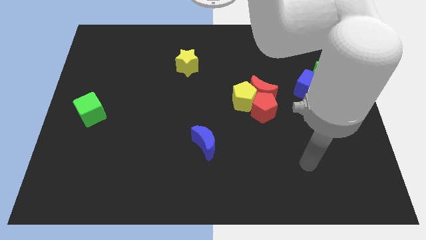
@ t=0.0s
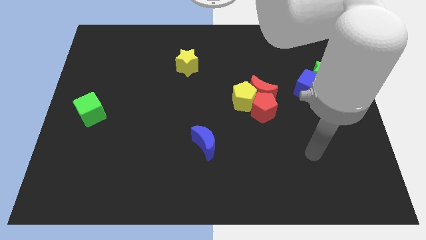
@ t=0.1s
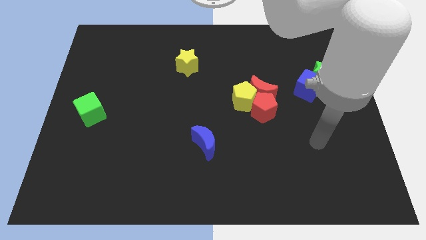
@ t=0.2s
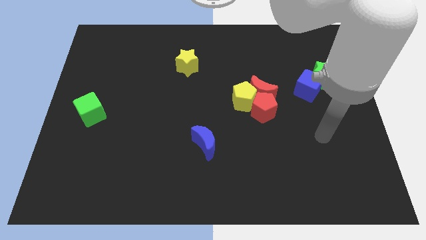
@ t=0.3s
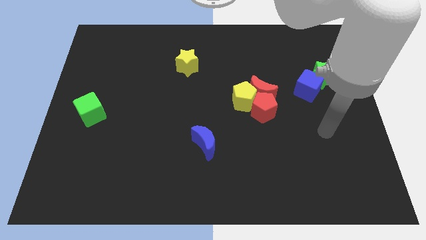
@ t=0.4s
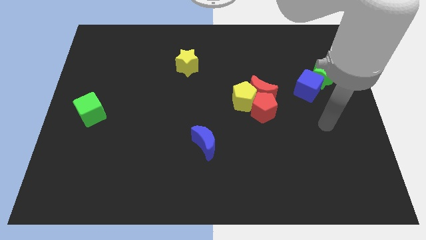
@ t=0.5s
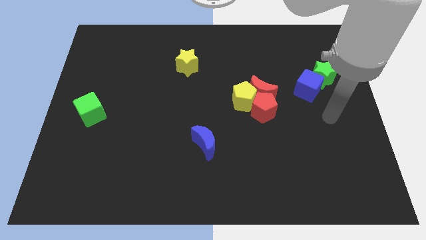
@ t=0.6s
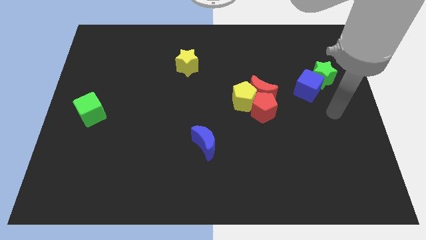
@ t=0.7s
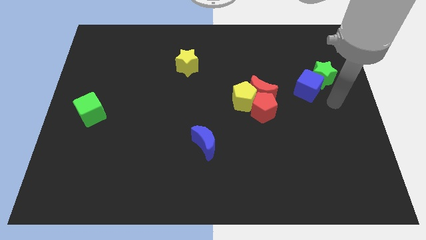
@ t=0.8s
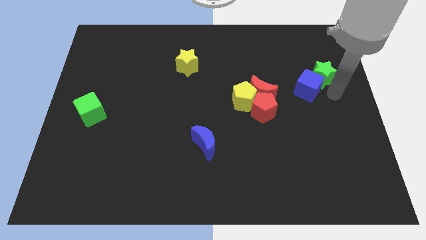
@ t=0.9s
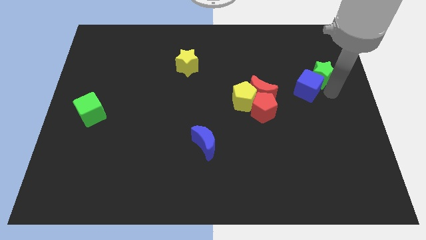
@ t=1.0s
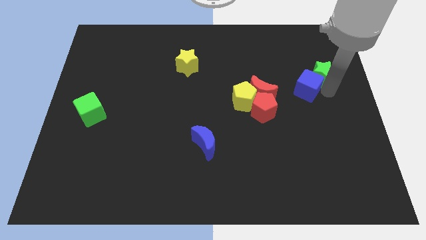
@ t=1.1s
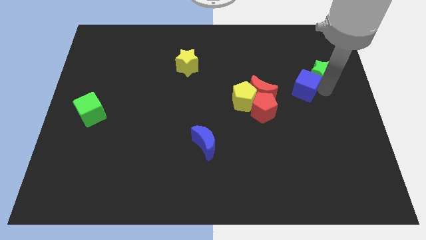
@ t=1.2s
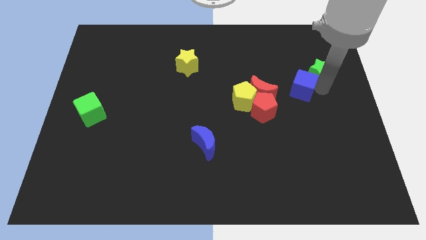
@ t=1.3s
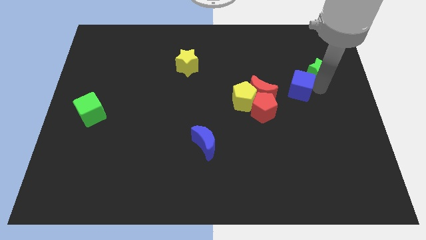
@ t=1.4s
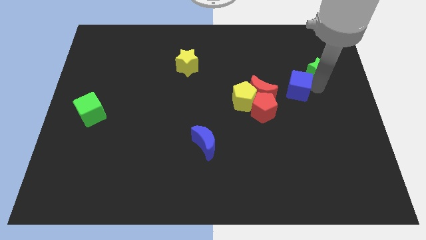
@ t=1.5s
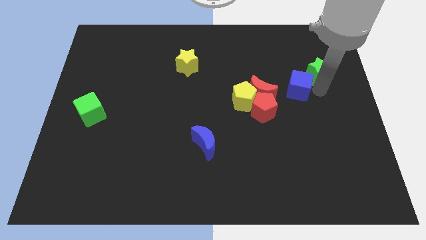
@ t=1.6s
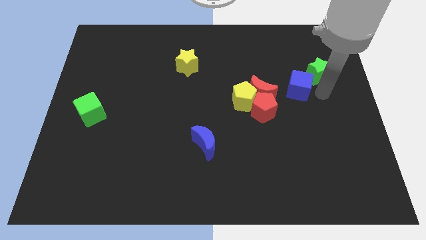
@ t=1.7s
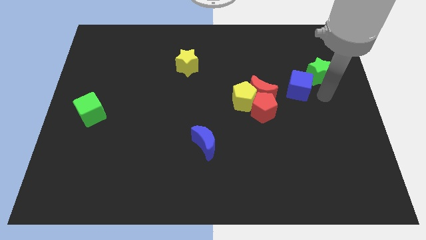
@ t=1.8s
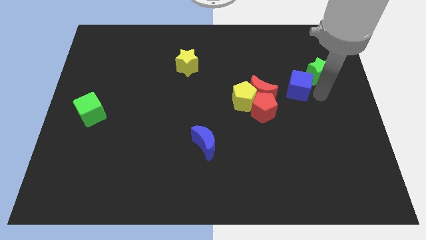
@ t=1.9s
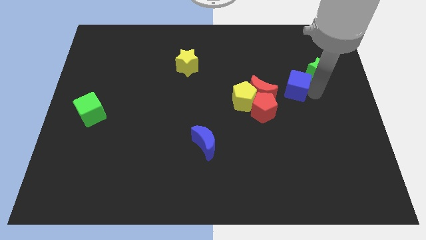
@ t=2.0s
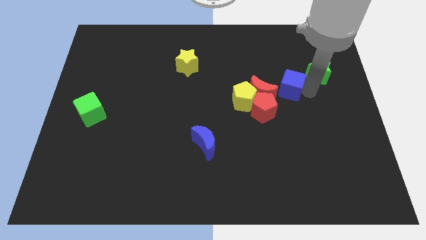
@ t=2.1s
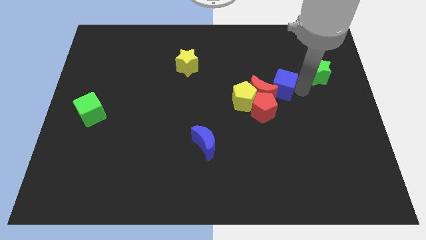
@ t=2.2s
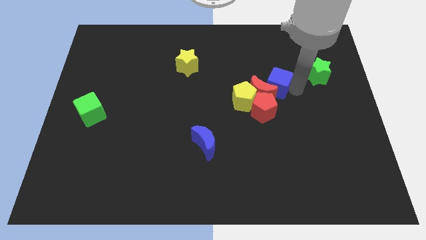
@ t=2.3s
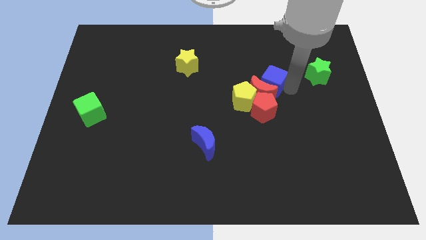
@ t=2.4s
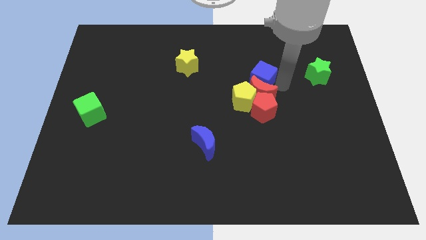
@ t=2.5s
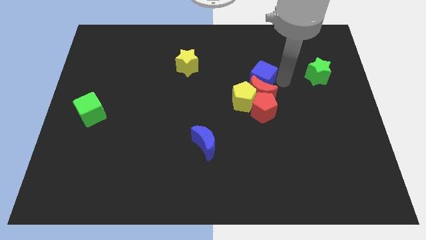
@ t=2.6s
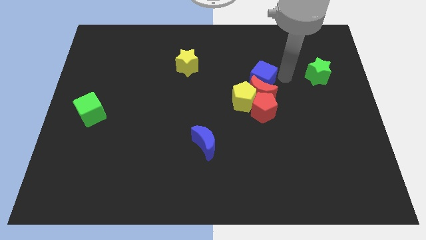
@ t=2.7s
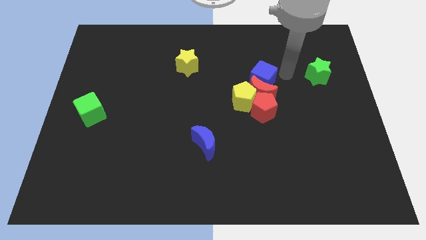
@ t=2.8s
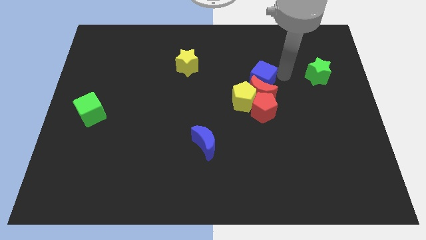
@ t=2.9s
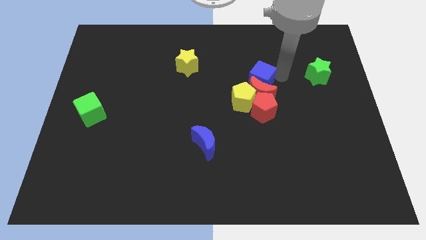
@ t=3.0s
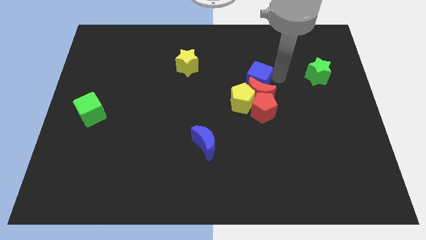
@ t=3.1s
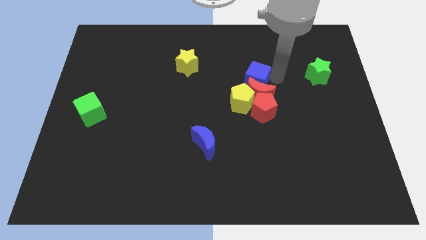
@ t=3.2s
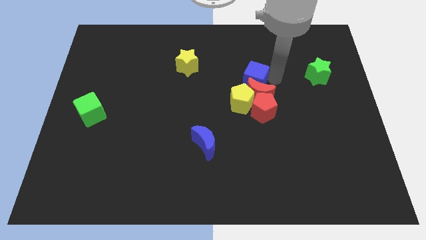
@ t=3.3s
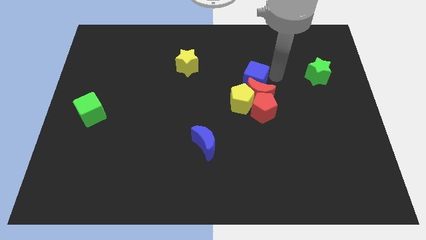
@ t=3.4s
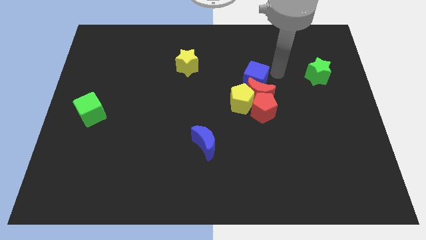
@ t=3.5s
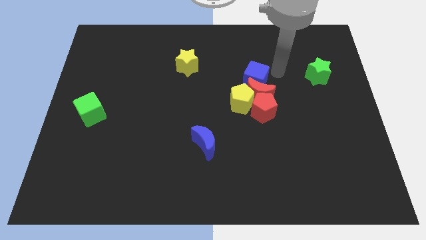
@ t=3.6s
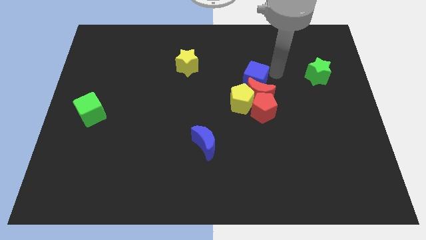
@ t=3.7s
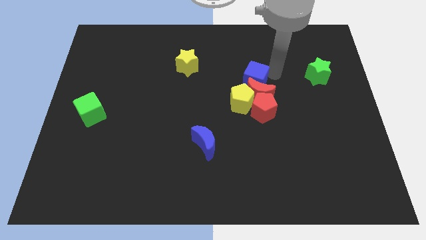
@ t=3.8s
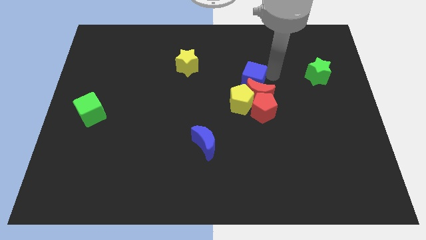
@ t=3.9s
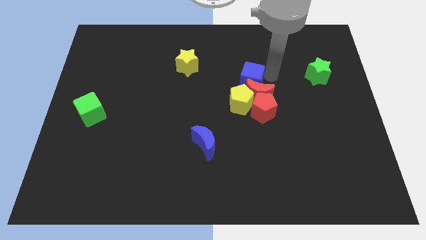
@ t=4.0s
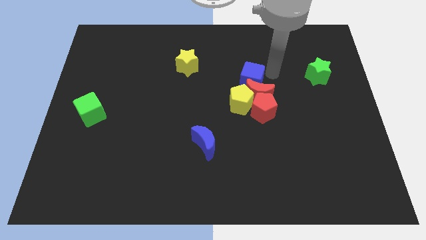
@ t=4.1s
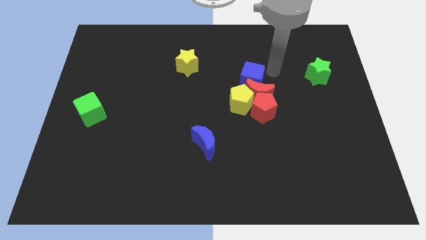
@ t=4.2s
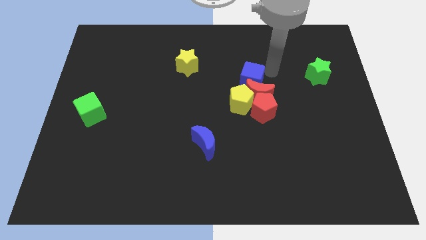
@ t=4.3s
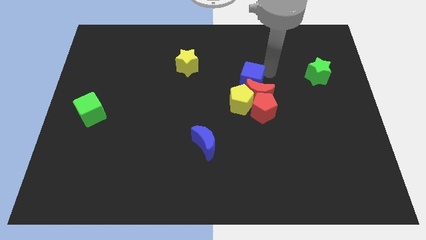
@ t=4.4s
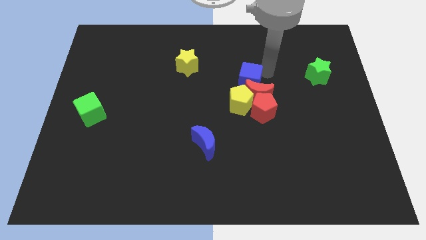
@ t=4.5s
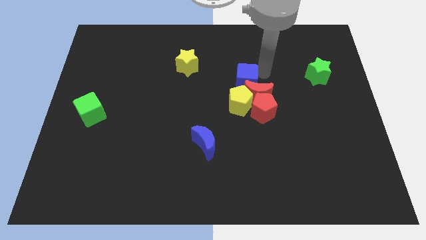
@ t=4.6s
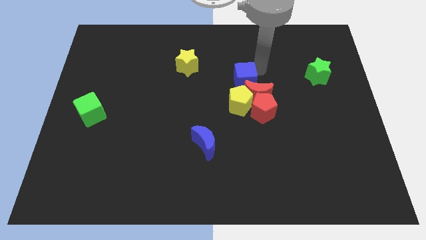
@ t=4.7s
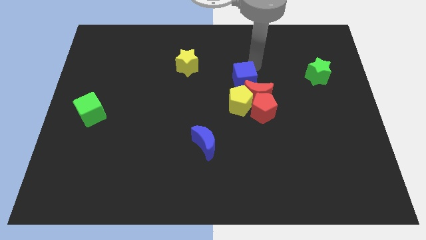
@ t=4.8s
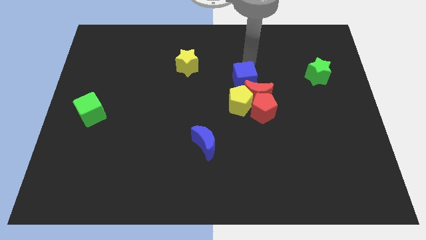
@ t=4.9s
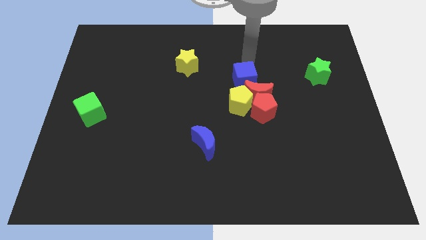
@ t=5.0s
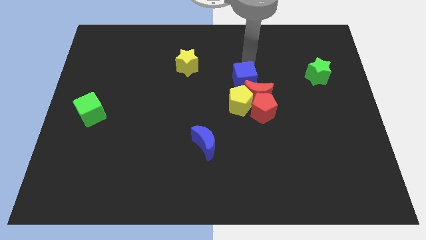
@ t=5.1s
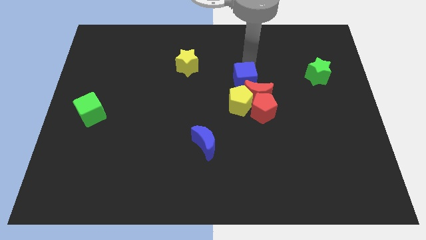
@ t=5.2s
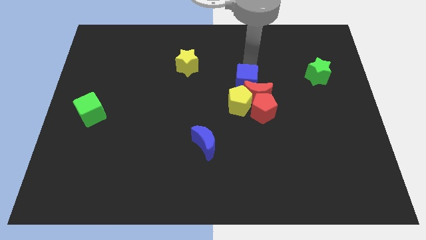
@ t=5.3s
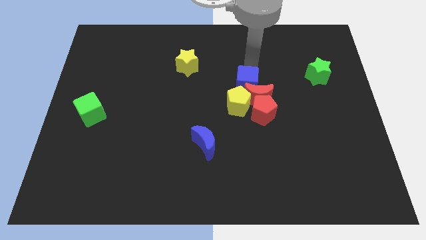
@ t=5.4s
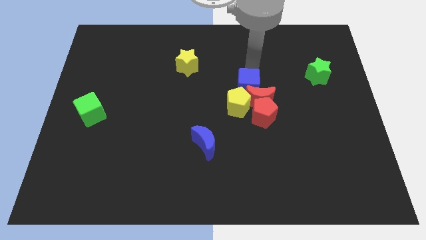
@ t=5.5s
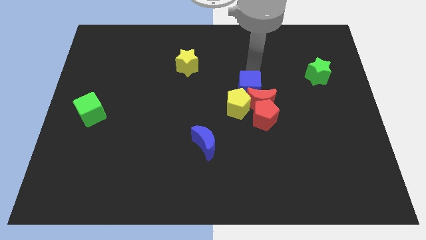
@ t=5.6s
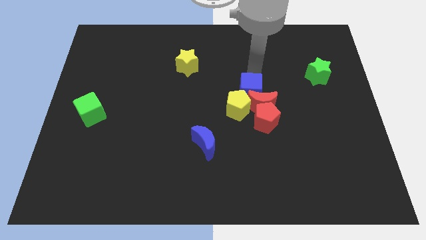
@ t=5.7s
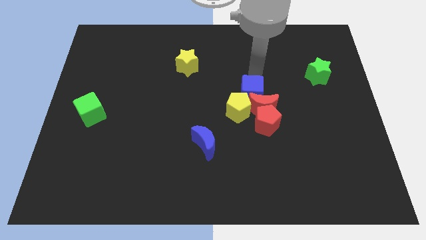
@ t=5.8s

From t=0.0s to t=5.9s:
put the blue cube close to the yellow pentagon

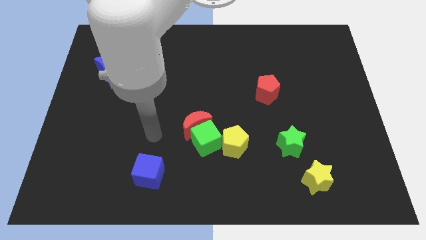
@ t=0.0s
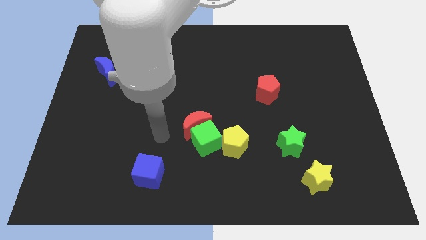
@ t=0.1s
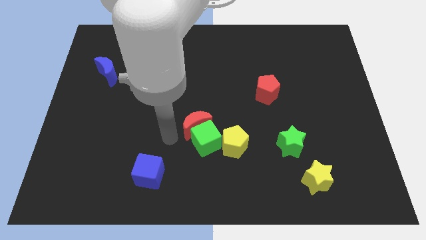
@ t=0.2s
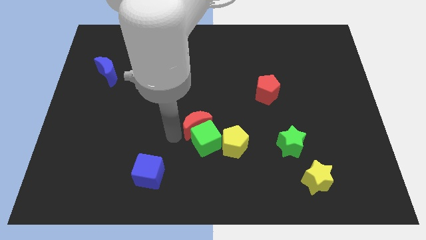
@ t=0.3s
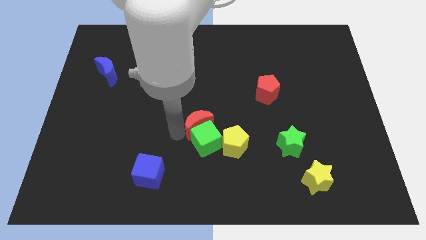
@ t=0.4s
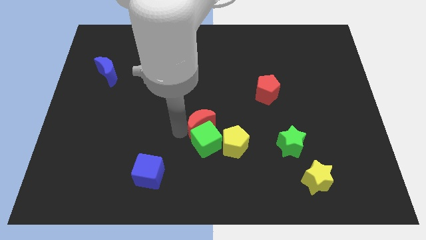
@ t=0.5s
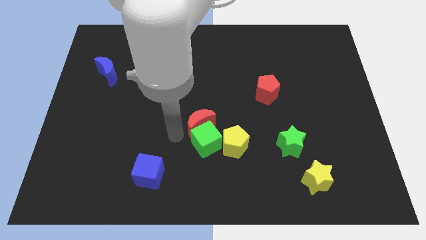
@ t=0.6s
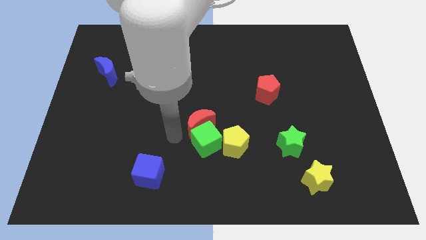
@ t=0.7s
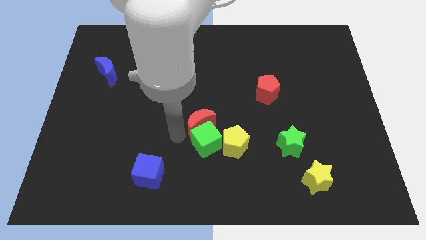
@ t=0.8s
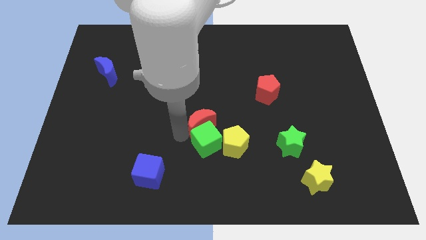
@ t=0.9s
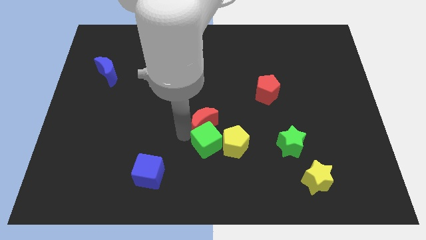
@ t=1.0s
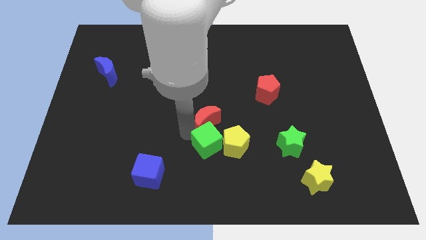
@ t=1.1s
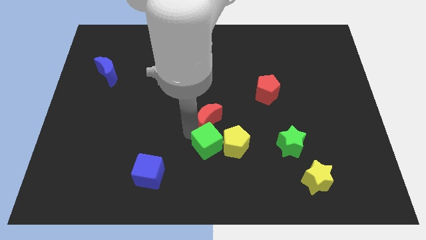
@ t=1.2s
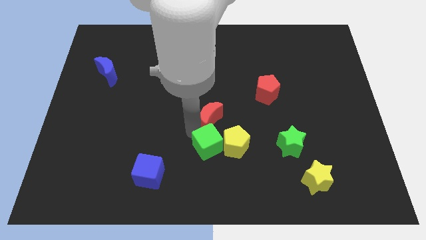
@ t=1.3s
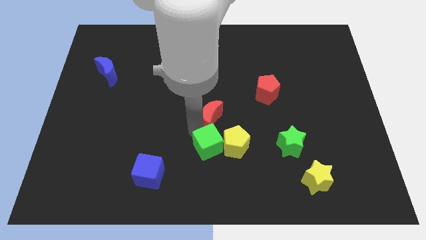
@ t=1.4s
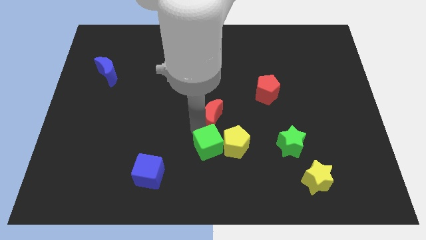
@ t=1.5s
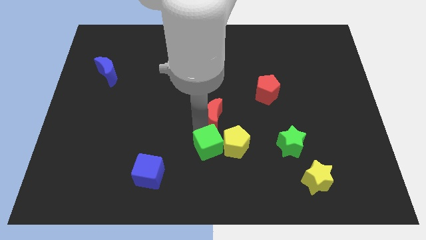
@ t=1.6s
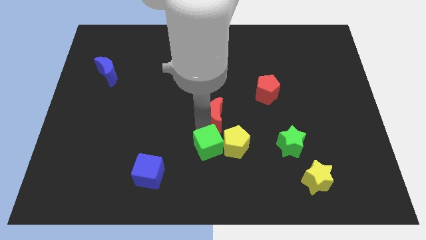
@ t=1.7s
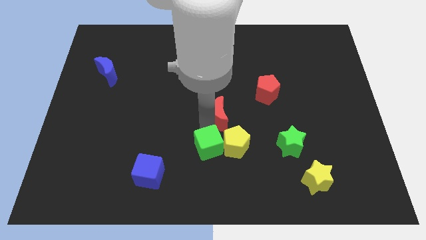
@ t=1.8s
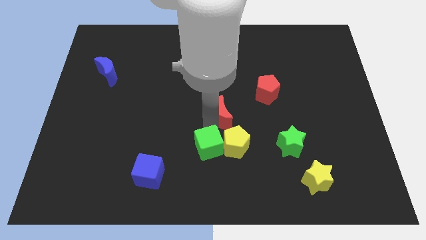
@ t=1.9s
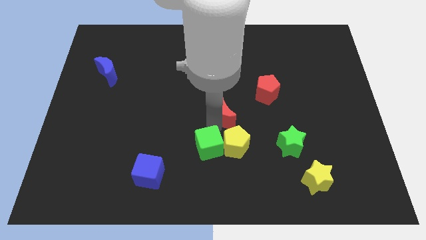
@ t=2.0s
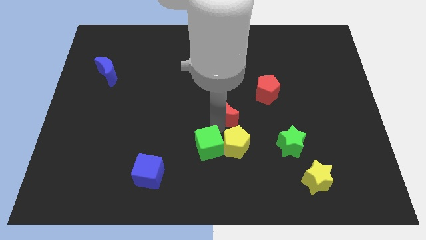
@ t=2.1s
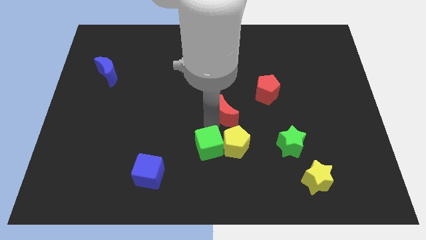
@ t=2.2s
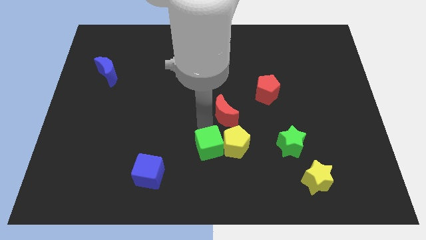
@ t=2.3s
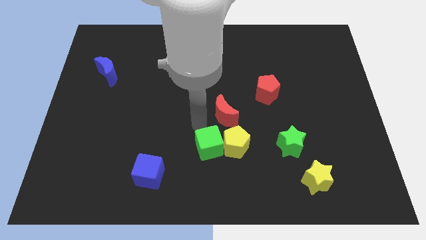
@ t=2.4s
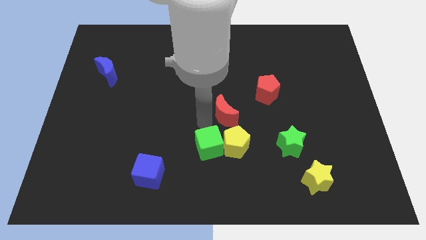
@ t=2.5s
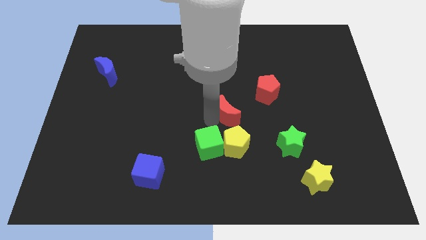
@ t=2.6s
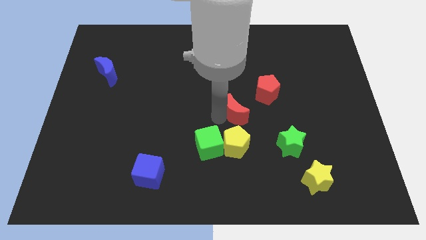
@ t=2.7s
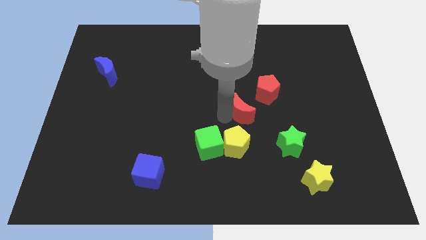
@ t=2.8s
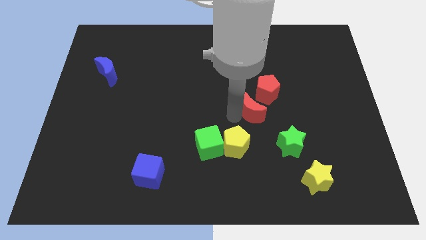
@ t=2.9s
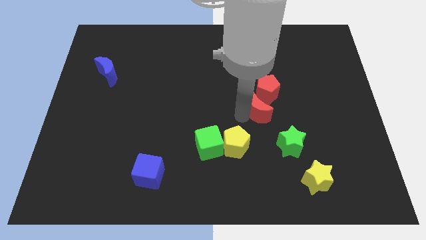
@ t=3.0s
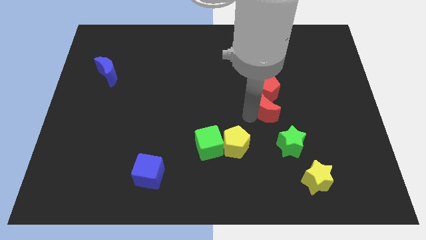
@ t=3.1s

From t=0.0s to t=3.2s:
push the red moon to the red pentagon
